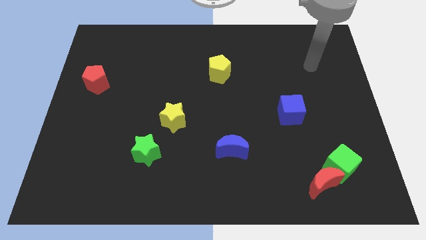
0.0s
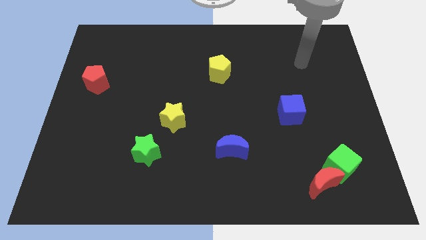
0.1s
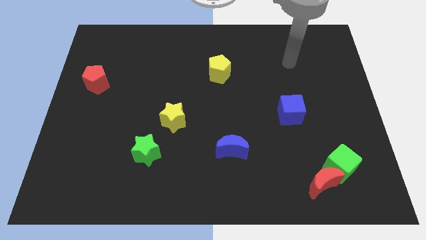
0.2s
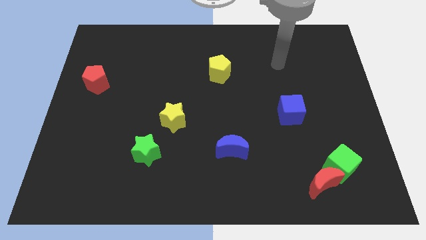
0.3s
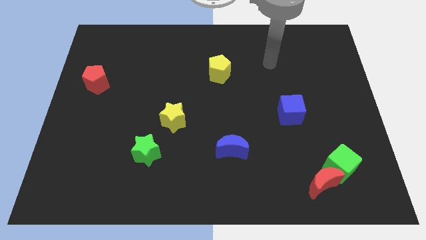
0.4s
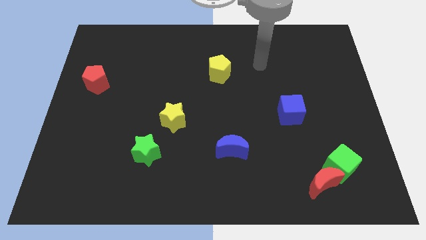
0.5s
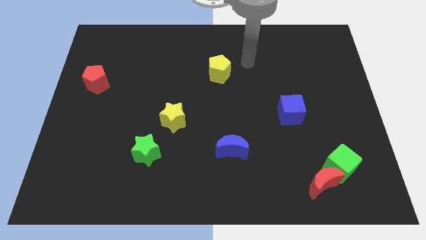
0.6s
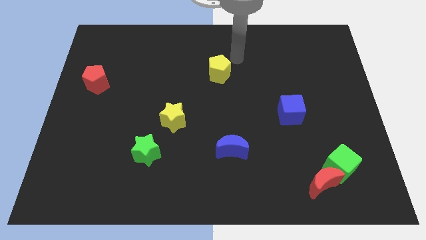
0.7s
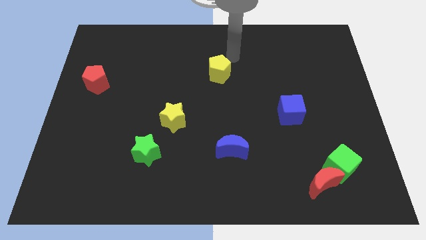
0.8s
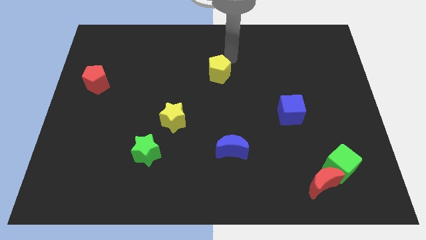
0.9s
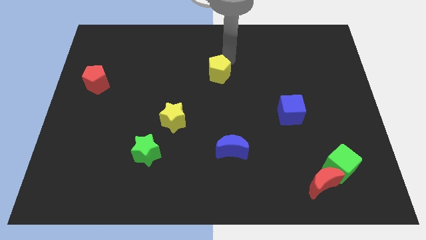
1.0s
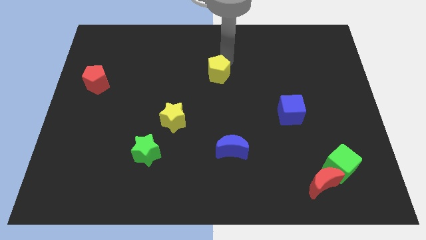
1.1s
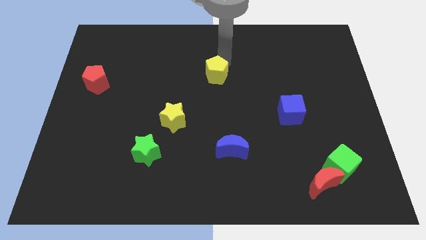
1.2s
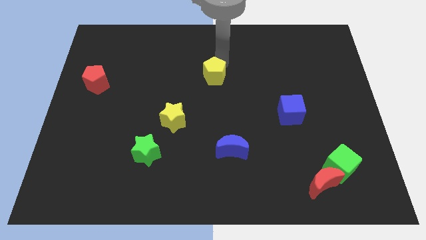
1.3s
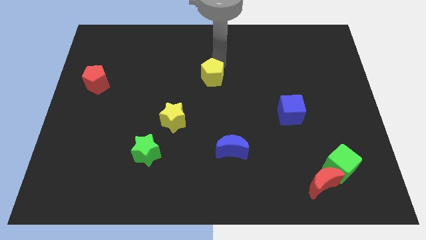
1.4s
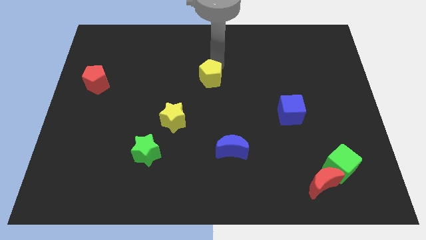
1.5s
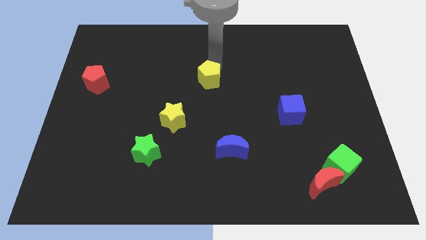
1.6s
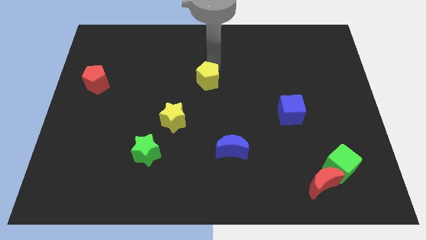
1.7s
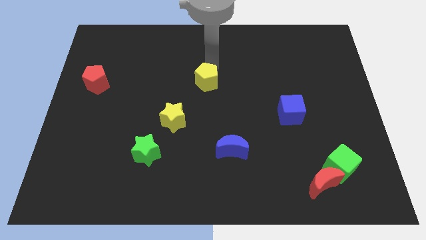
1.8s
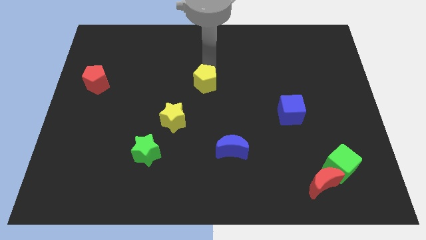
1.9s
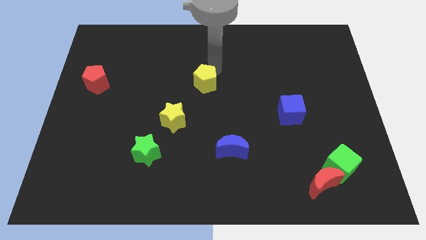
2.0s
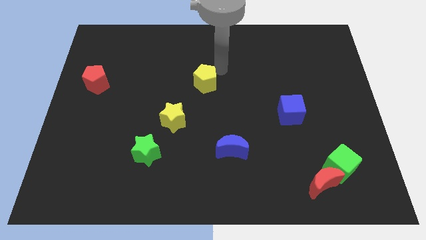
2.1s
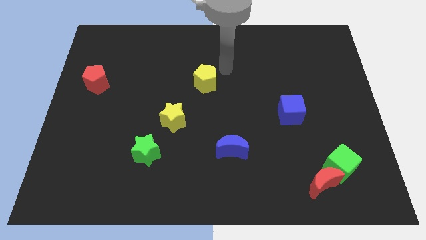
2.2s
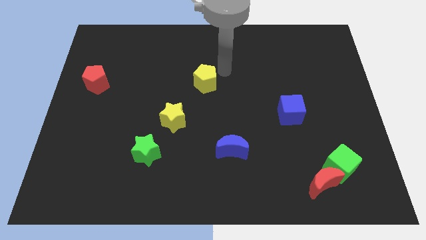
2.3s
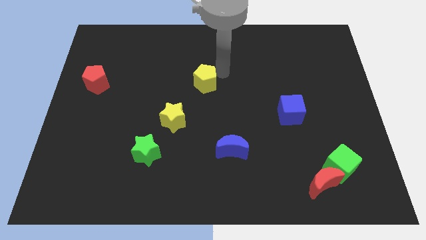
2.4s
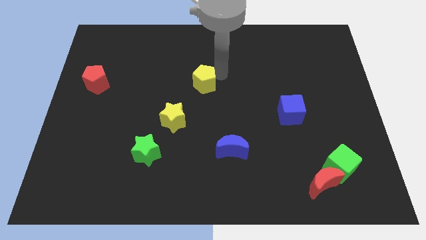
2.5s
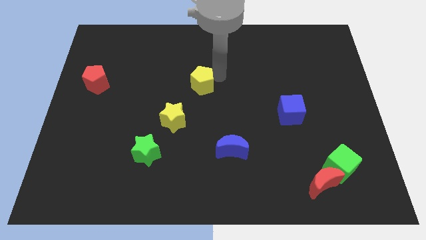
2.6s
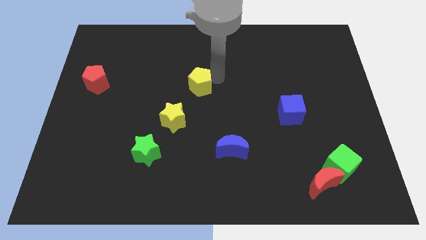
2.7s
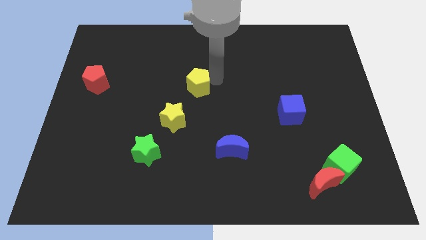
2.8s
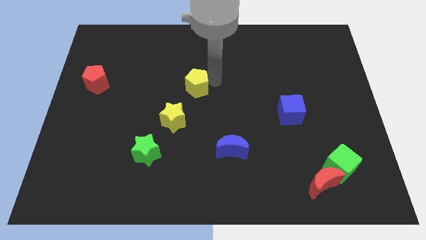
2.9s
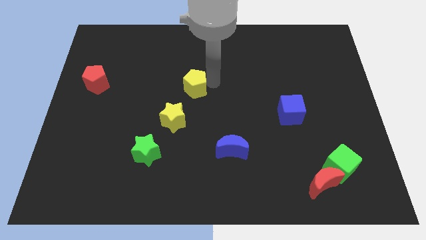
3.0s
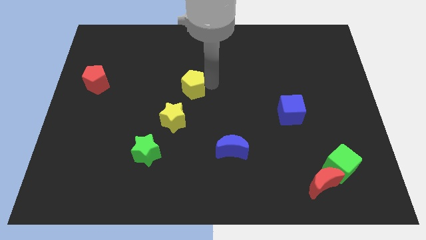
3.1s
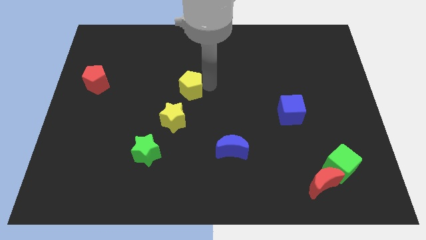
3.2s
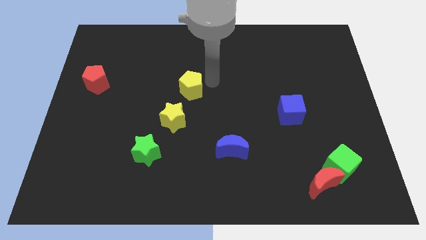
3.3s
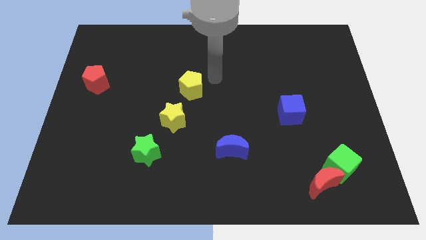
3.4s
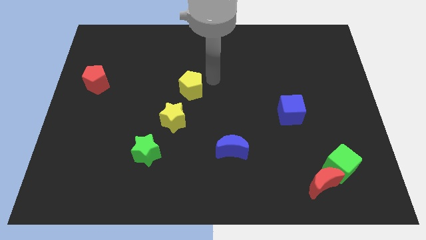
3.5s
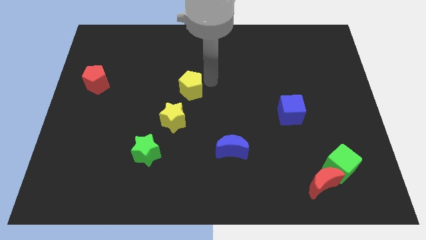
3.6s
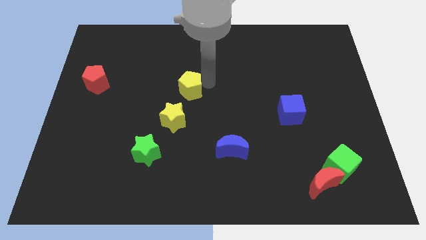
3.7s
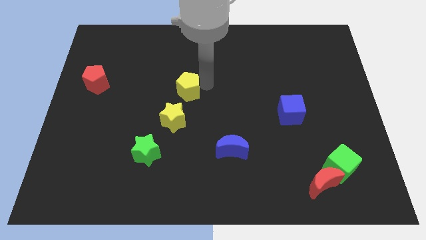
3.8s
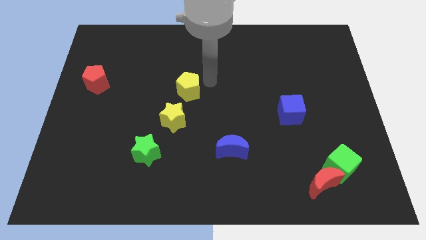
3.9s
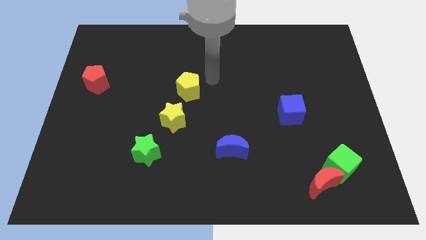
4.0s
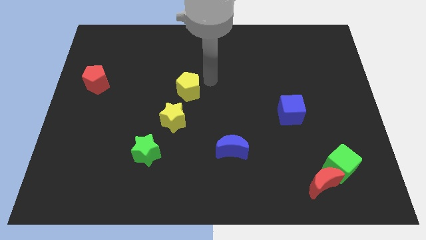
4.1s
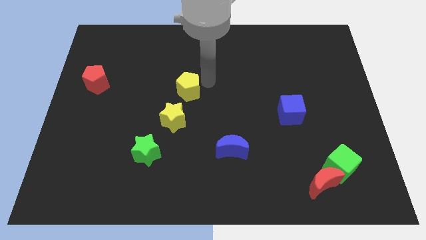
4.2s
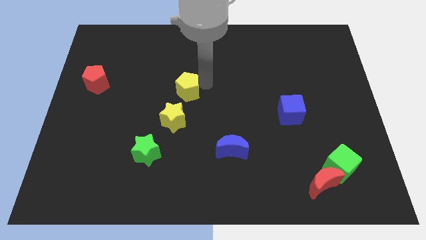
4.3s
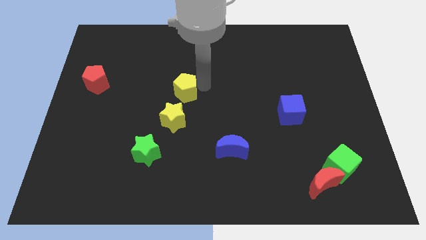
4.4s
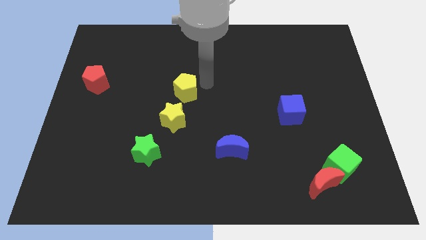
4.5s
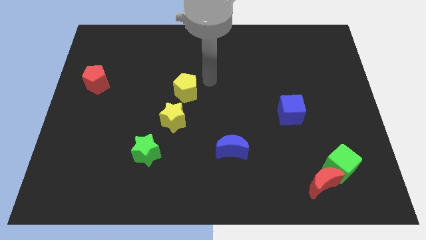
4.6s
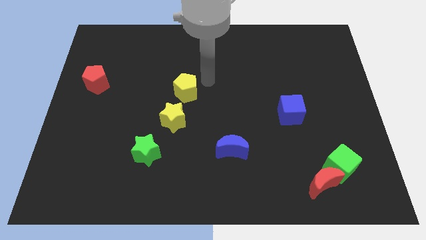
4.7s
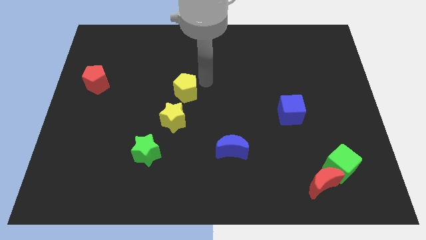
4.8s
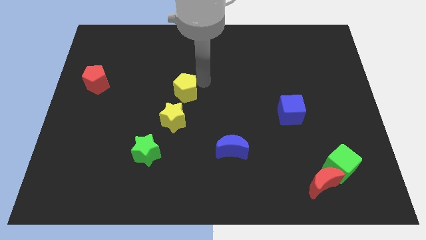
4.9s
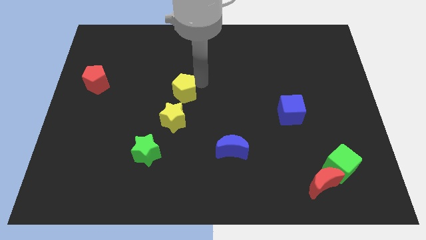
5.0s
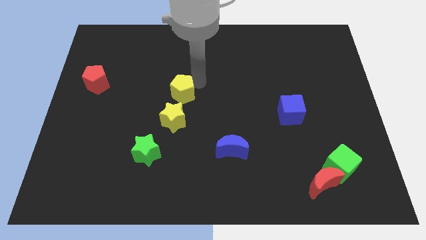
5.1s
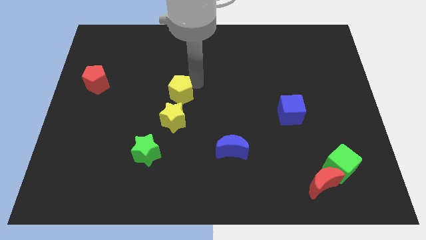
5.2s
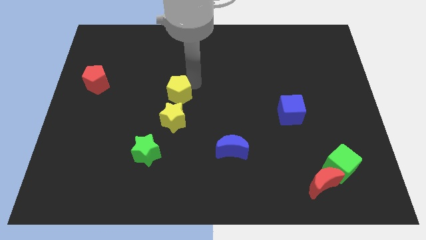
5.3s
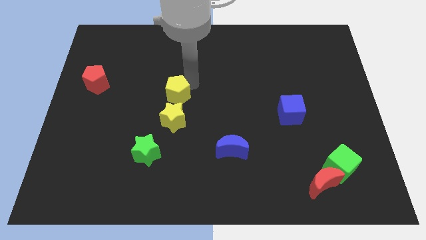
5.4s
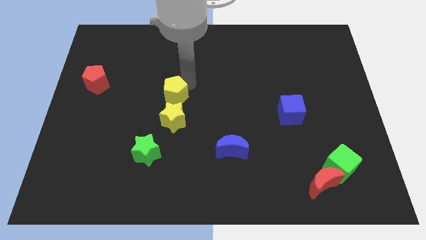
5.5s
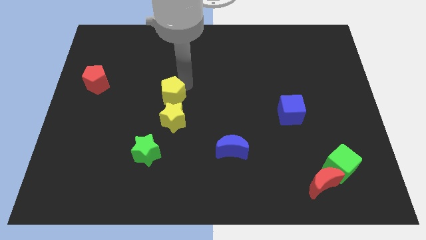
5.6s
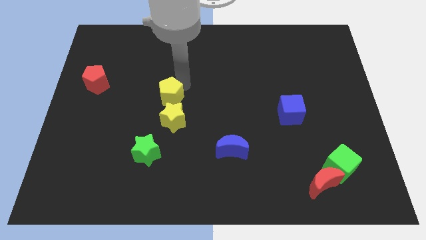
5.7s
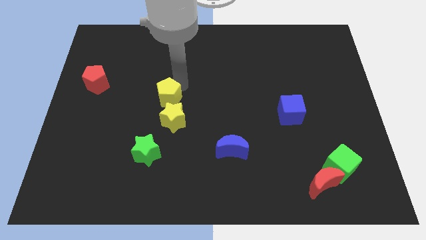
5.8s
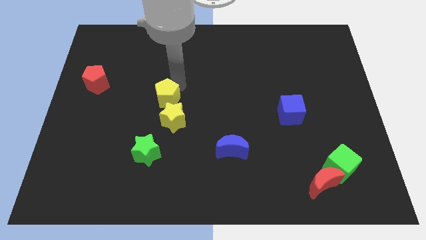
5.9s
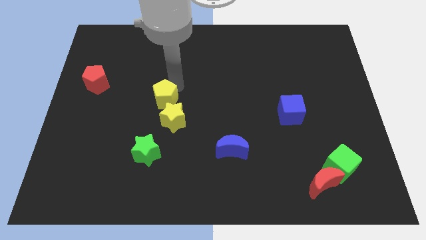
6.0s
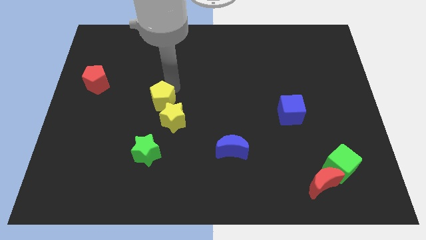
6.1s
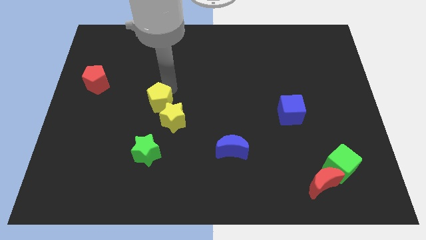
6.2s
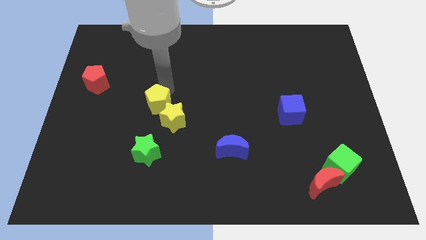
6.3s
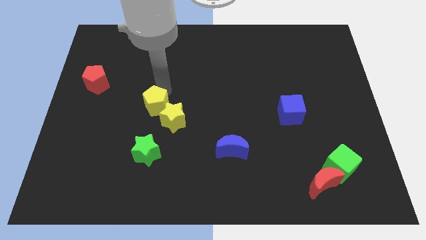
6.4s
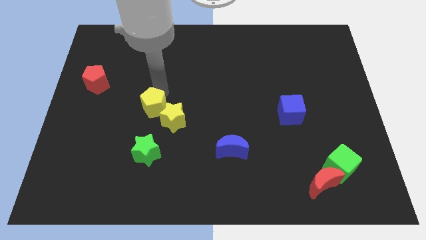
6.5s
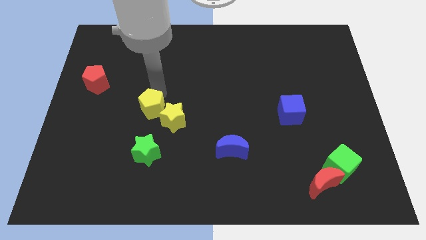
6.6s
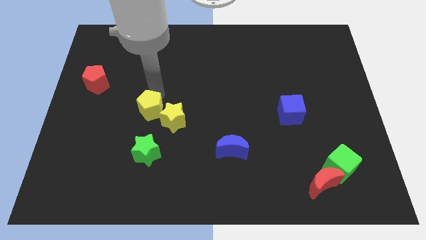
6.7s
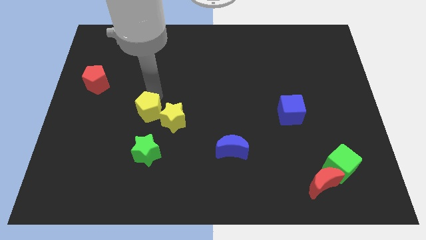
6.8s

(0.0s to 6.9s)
slide the yellow pentagon diagonally downwards and to the left

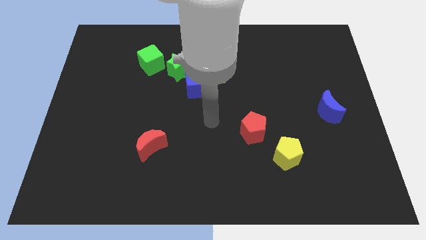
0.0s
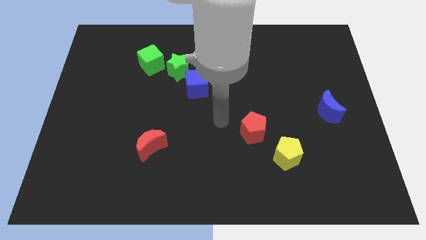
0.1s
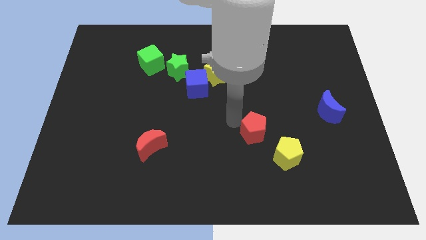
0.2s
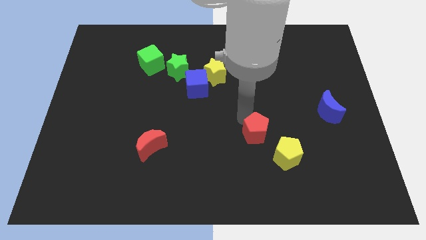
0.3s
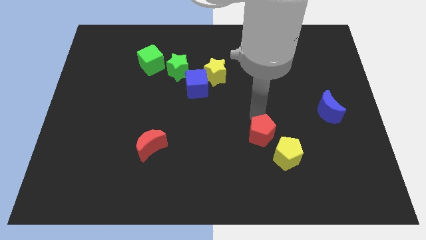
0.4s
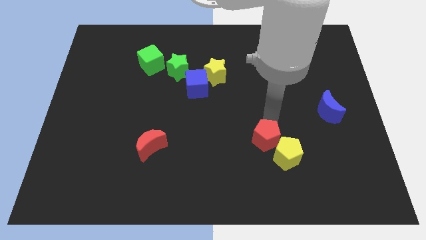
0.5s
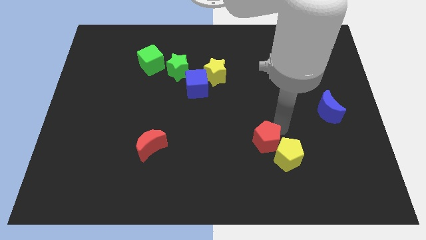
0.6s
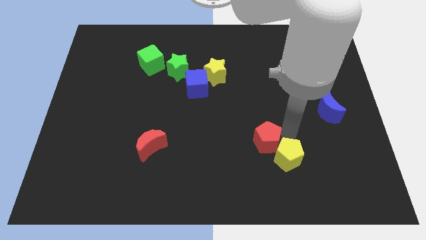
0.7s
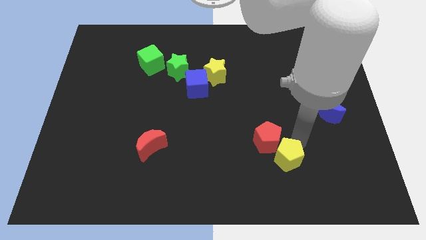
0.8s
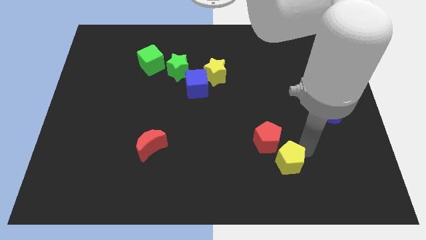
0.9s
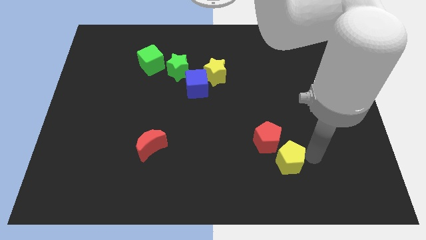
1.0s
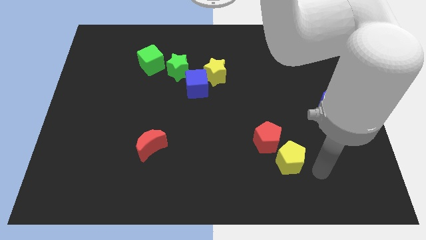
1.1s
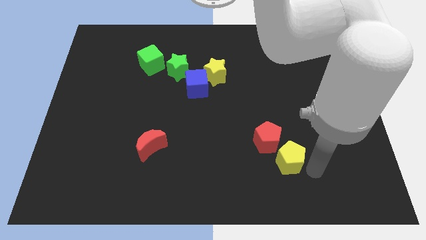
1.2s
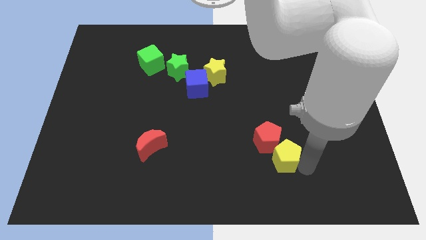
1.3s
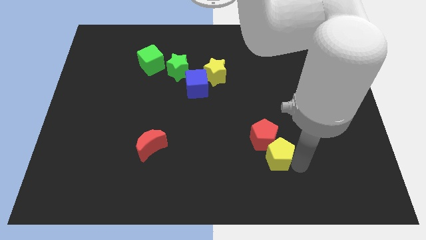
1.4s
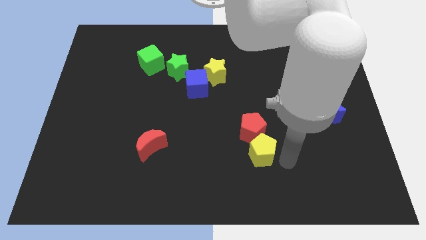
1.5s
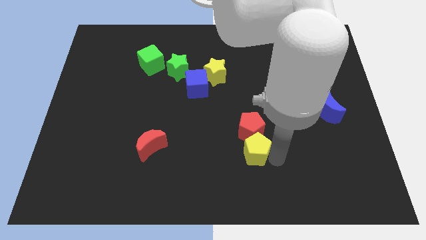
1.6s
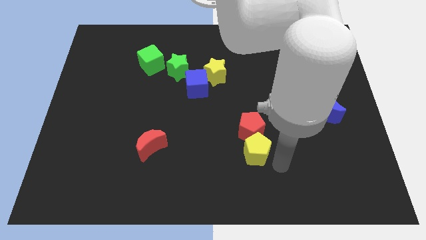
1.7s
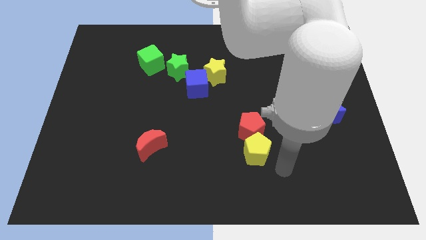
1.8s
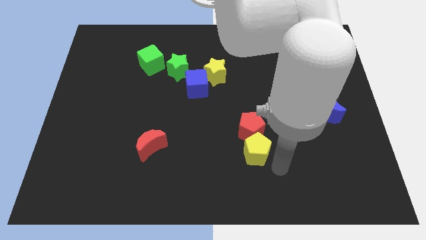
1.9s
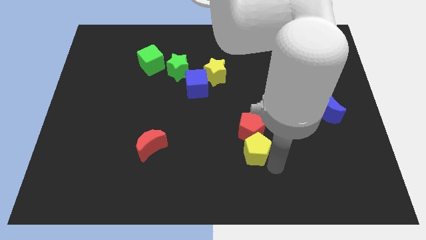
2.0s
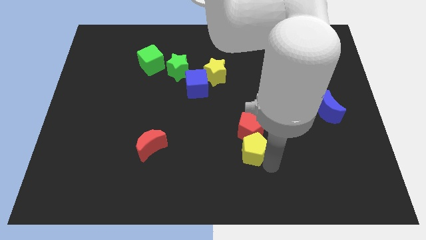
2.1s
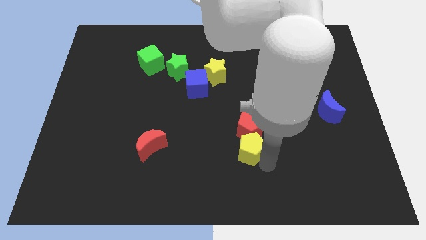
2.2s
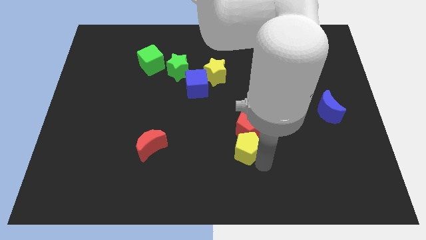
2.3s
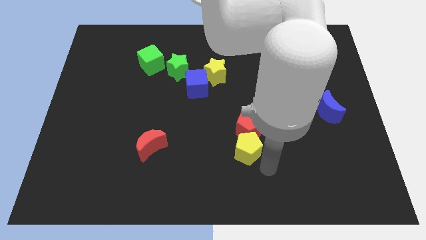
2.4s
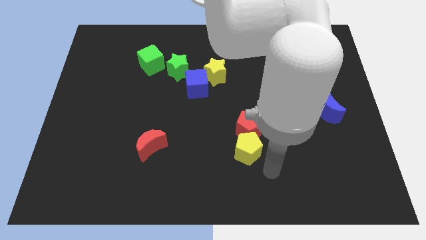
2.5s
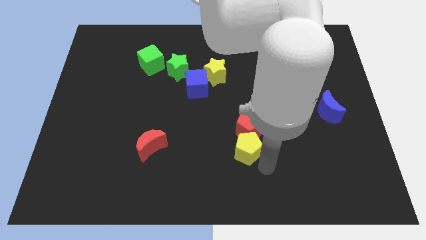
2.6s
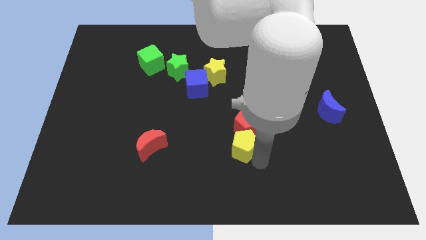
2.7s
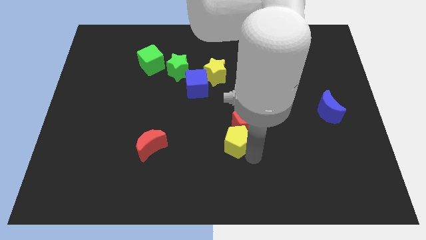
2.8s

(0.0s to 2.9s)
push the yellow pentagon upwards and to the left diagonally a bit
